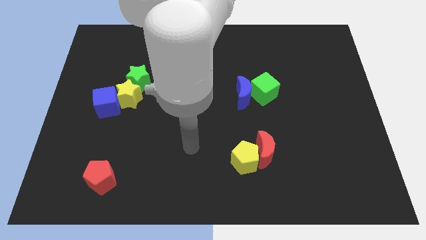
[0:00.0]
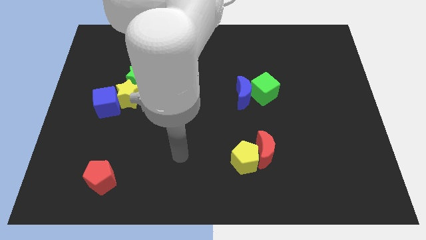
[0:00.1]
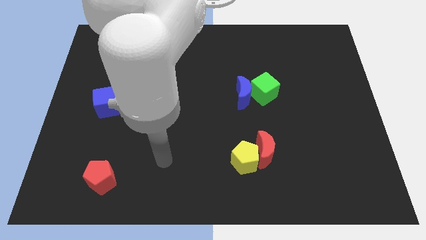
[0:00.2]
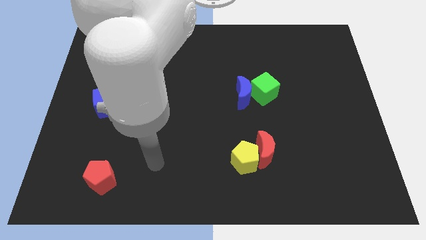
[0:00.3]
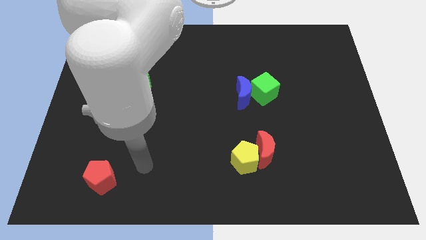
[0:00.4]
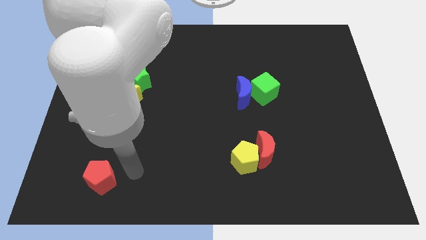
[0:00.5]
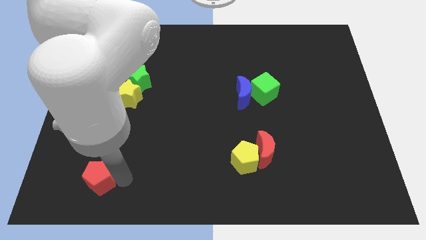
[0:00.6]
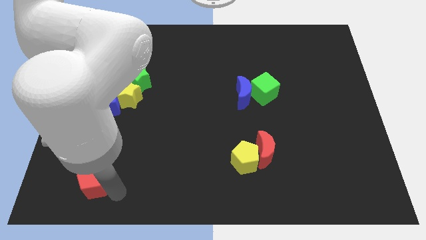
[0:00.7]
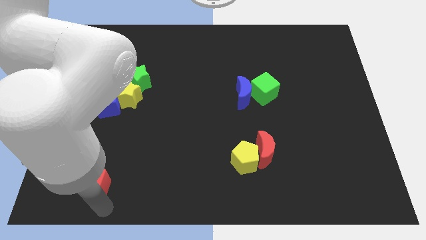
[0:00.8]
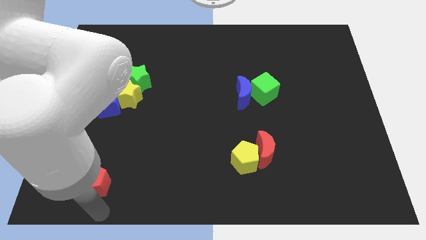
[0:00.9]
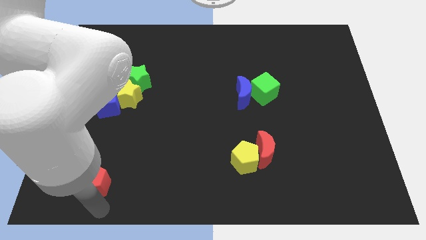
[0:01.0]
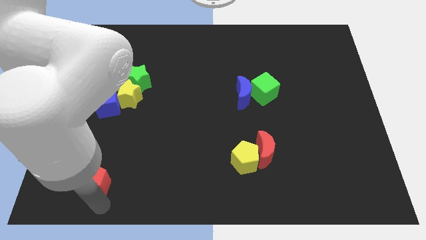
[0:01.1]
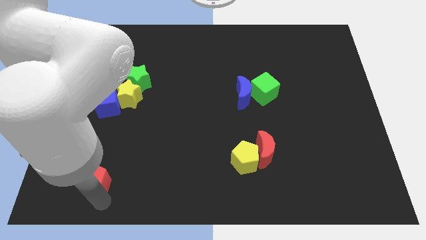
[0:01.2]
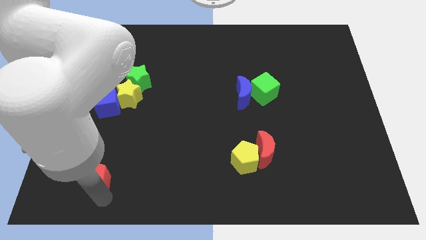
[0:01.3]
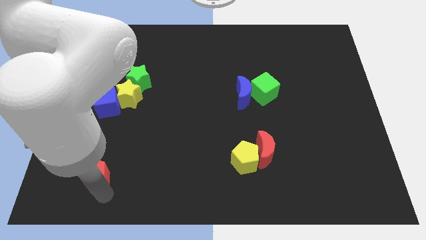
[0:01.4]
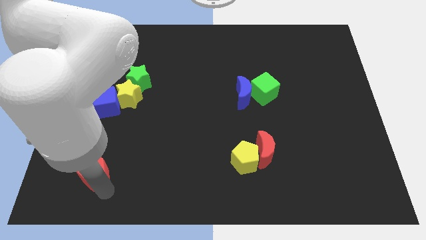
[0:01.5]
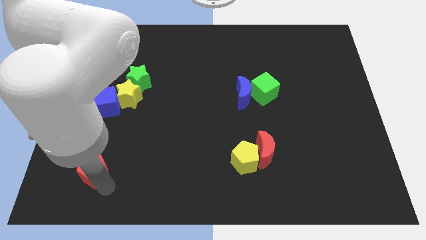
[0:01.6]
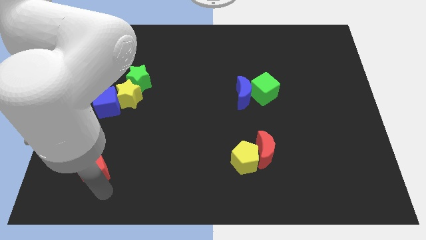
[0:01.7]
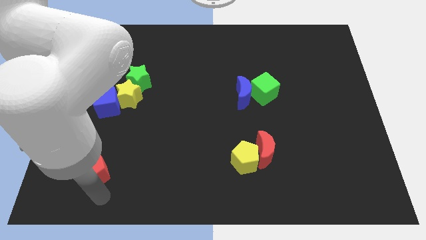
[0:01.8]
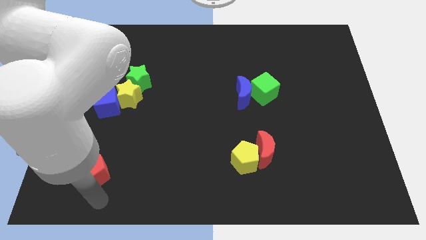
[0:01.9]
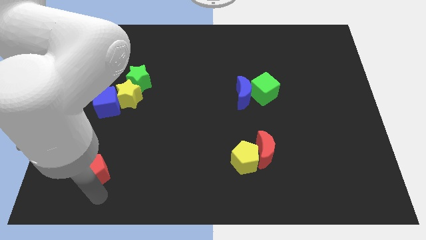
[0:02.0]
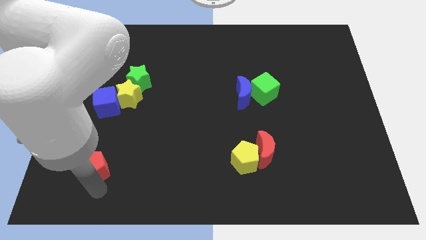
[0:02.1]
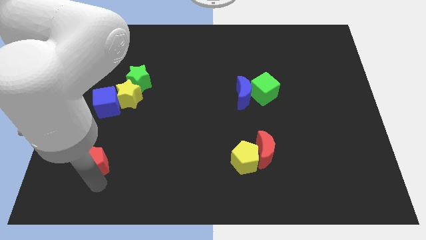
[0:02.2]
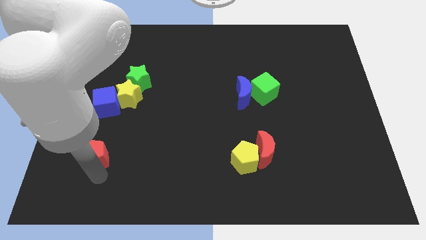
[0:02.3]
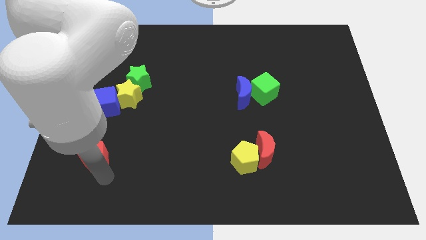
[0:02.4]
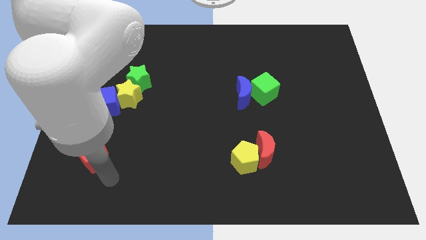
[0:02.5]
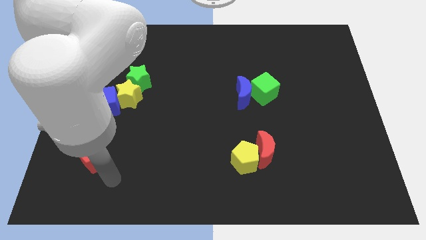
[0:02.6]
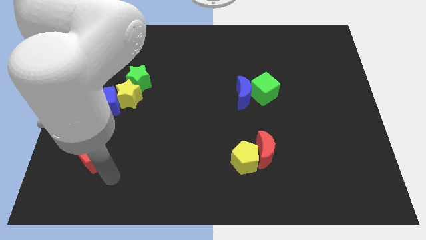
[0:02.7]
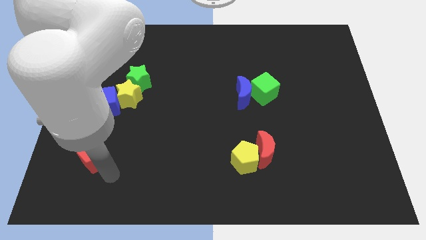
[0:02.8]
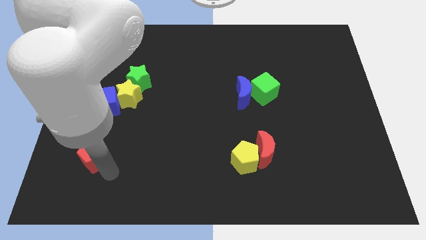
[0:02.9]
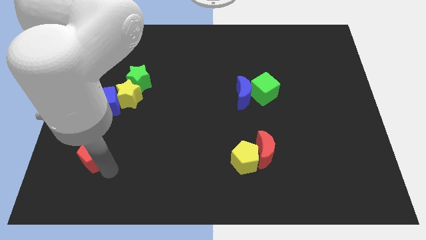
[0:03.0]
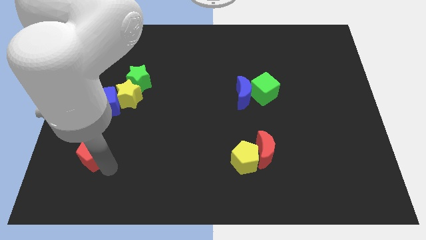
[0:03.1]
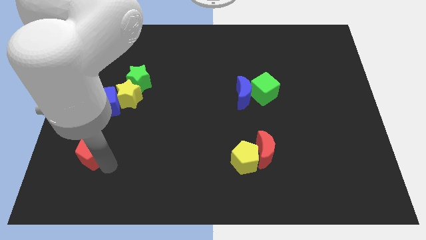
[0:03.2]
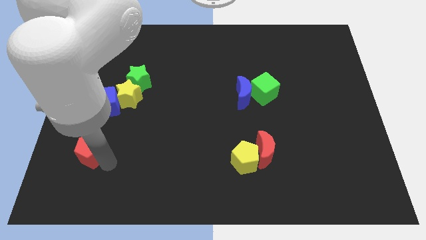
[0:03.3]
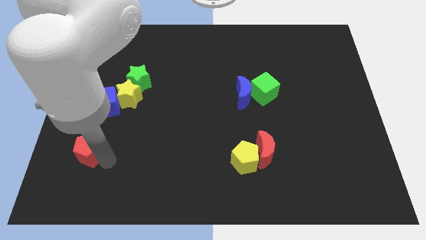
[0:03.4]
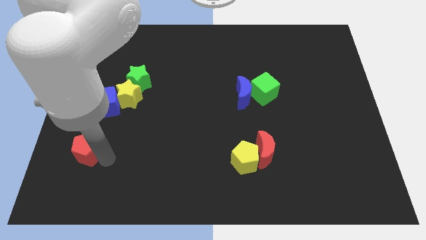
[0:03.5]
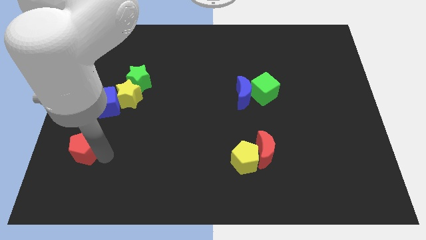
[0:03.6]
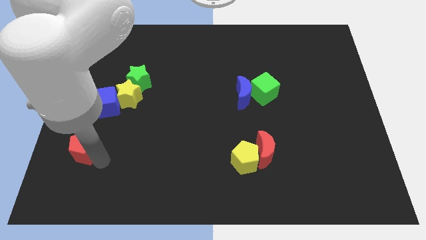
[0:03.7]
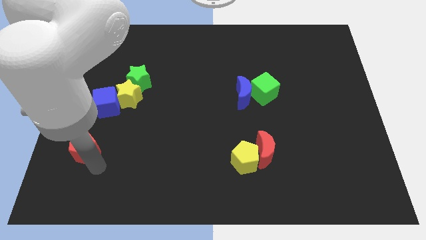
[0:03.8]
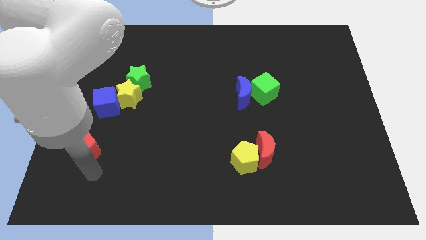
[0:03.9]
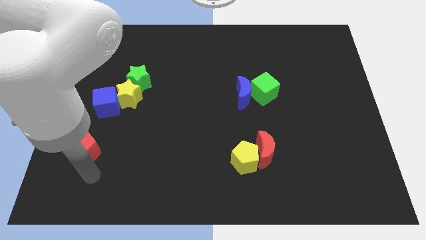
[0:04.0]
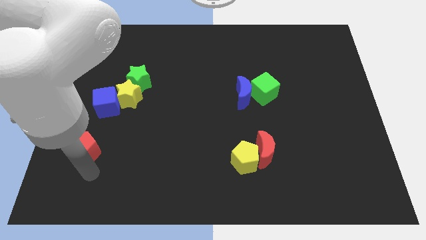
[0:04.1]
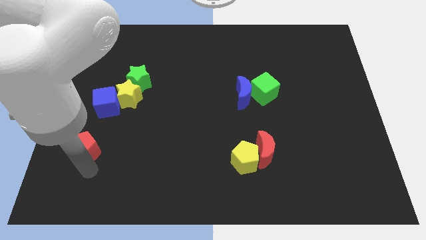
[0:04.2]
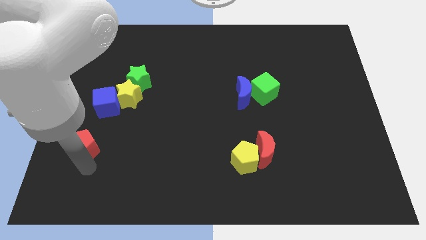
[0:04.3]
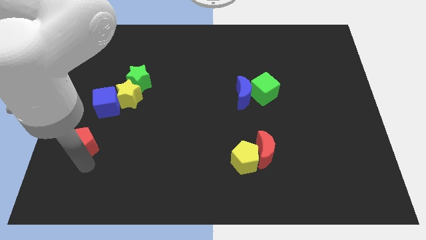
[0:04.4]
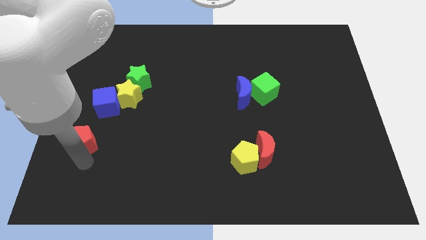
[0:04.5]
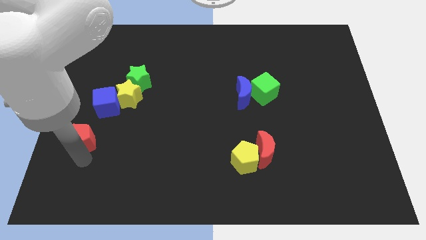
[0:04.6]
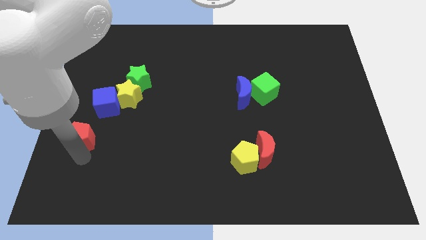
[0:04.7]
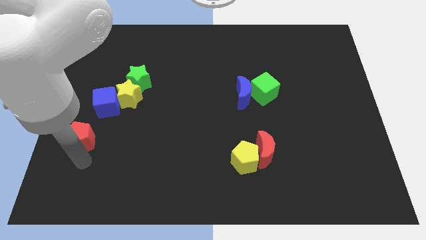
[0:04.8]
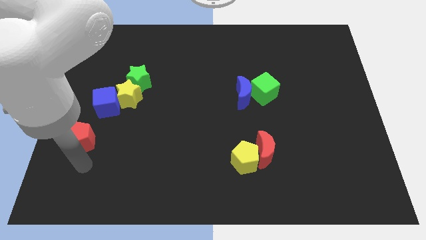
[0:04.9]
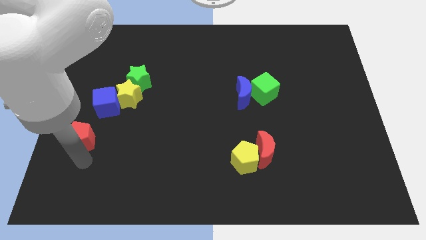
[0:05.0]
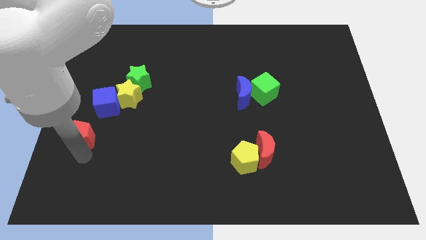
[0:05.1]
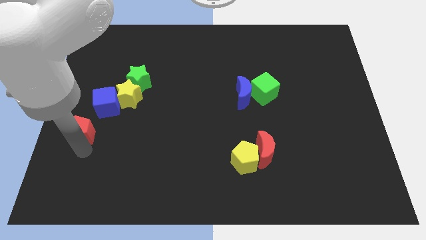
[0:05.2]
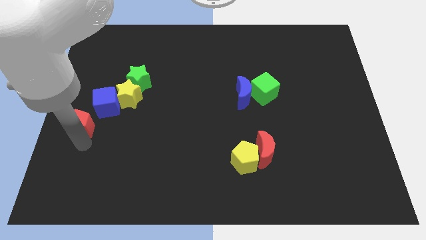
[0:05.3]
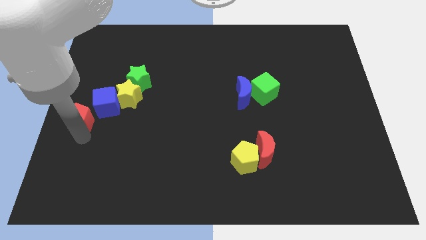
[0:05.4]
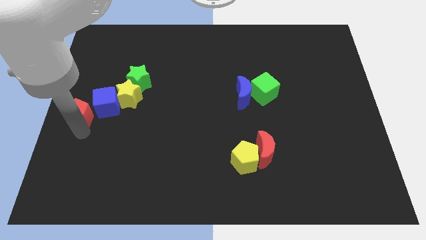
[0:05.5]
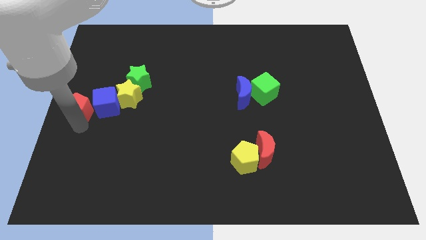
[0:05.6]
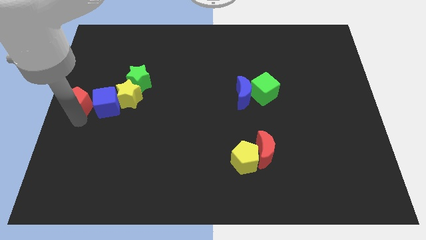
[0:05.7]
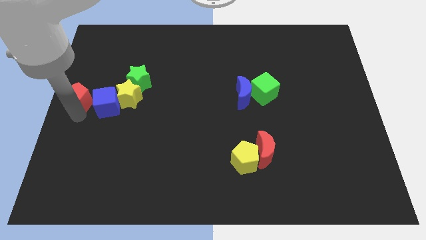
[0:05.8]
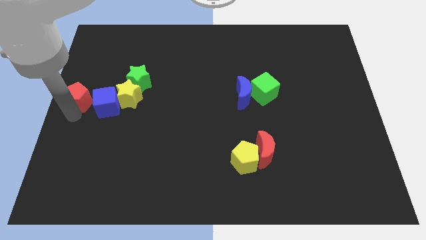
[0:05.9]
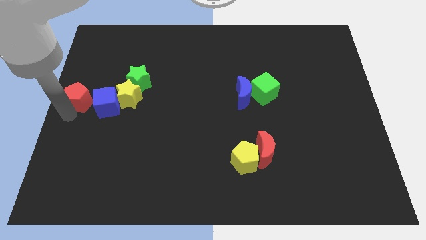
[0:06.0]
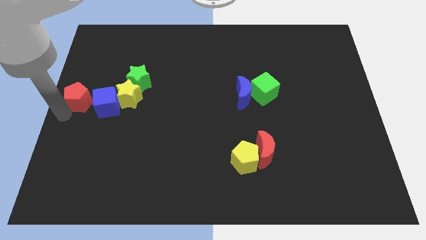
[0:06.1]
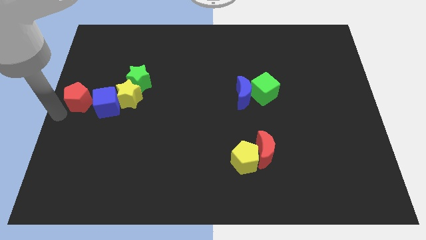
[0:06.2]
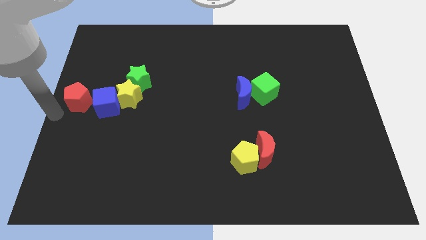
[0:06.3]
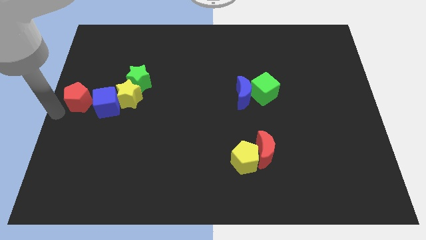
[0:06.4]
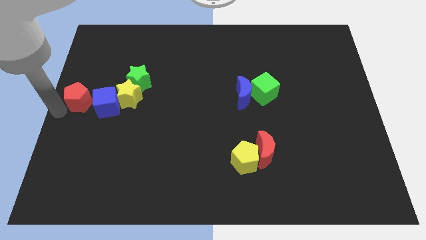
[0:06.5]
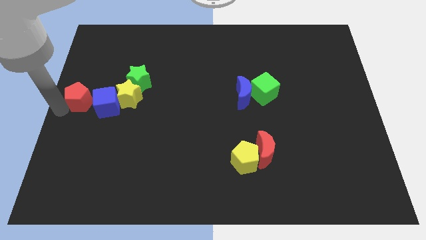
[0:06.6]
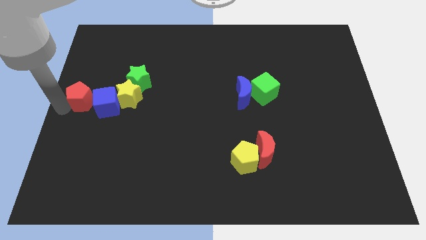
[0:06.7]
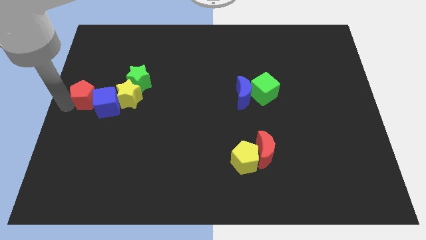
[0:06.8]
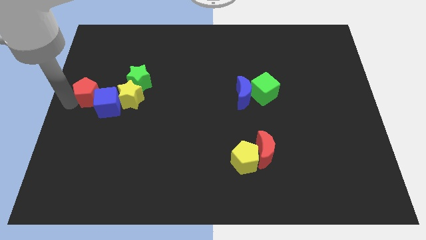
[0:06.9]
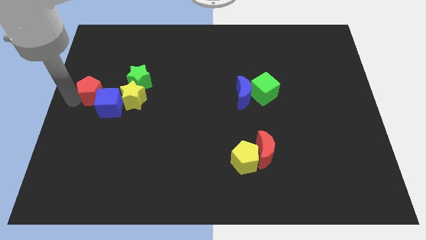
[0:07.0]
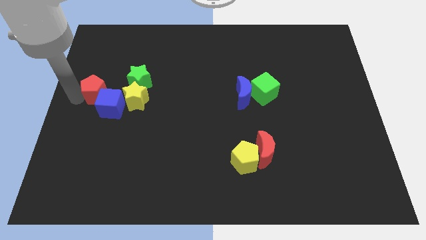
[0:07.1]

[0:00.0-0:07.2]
put the red pentagon to the top side of the blue cube
